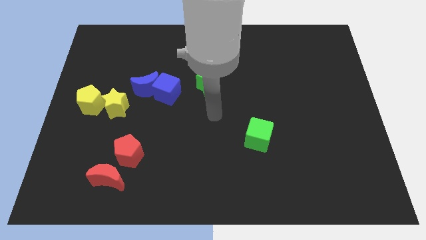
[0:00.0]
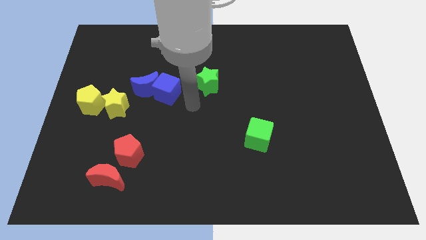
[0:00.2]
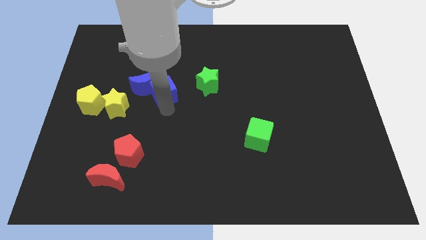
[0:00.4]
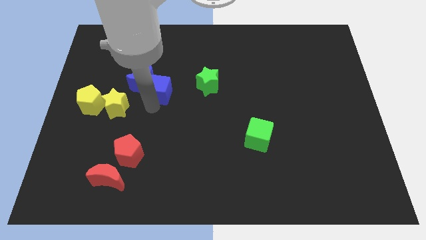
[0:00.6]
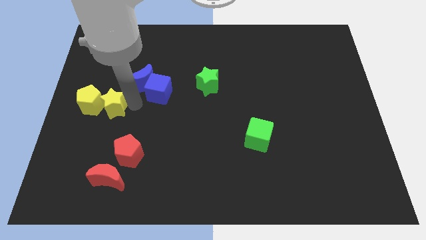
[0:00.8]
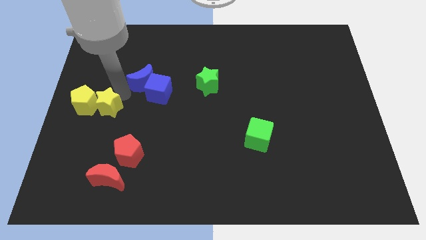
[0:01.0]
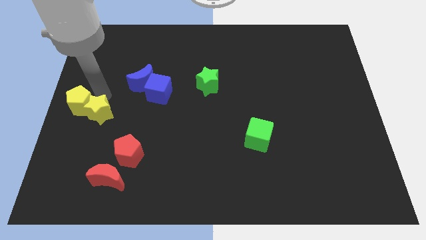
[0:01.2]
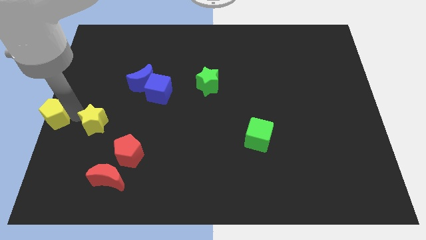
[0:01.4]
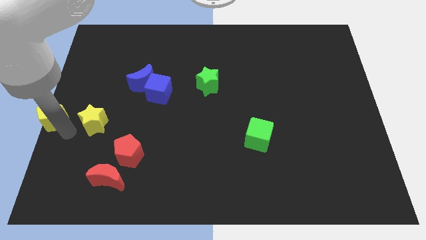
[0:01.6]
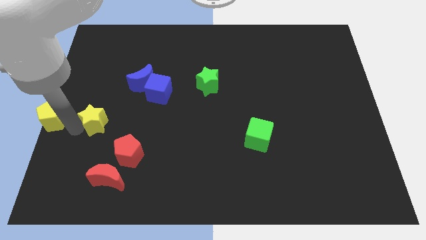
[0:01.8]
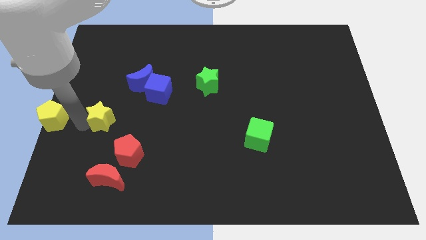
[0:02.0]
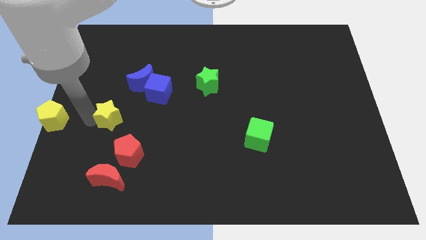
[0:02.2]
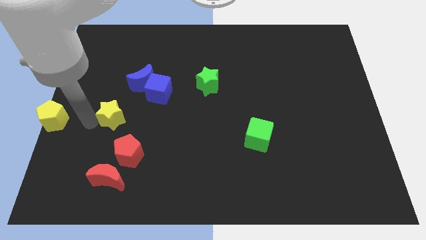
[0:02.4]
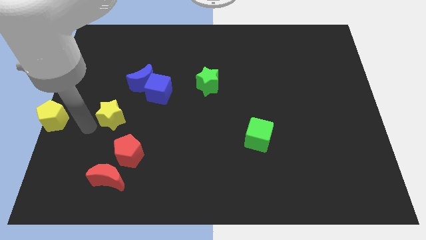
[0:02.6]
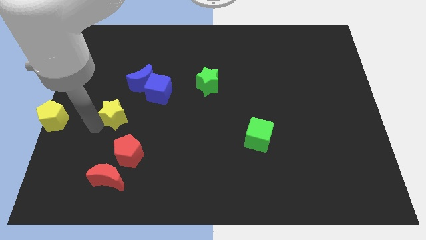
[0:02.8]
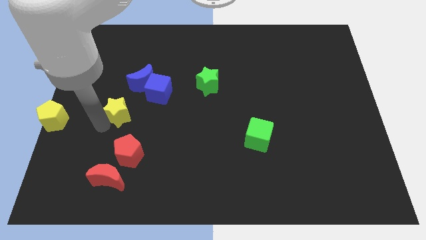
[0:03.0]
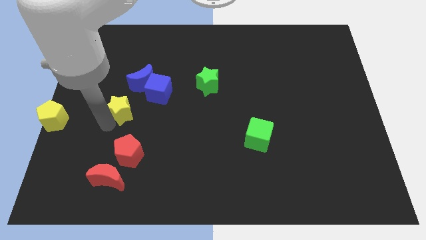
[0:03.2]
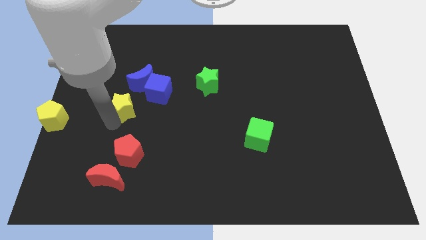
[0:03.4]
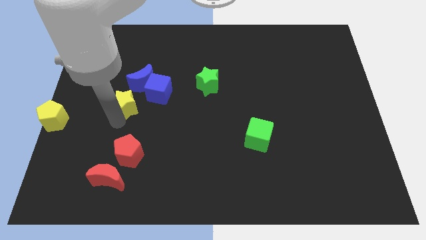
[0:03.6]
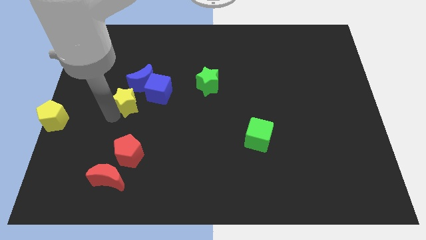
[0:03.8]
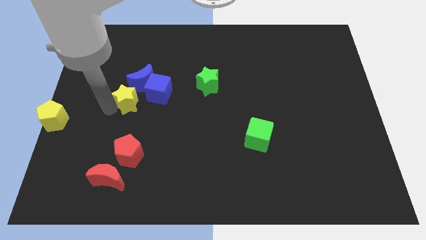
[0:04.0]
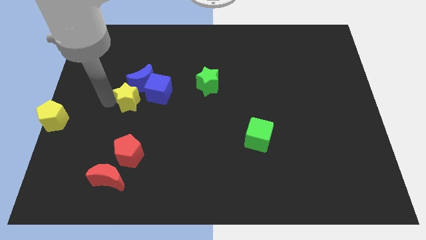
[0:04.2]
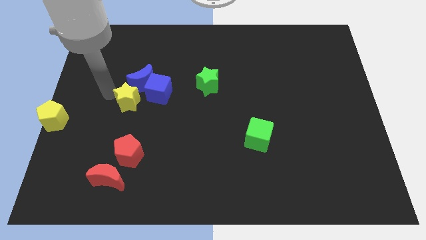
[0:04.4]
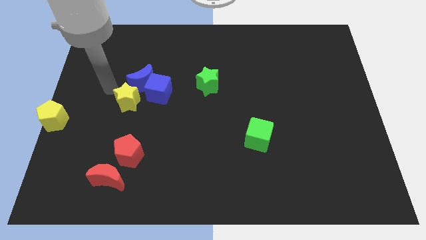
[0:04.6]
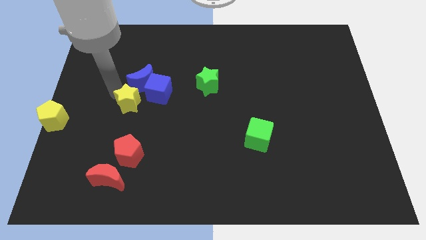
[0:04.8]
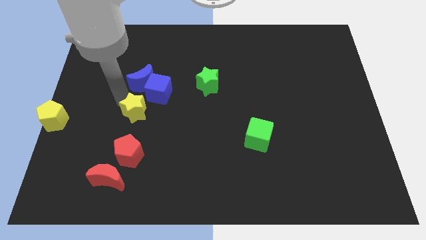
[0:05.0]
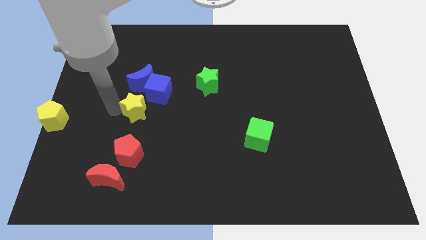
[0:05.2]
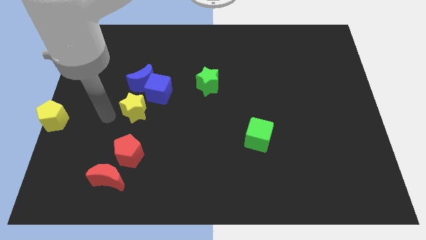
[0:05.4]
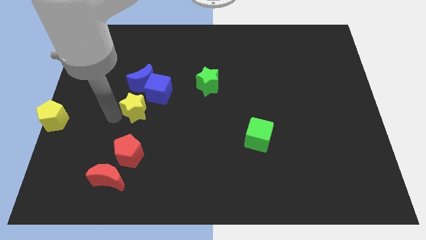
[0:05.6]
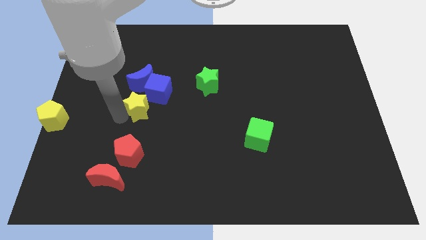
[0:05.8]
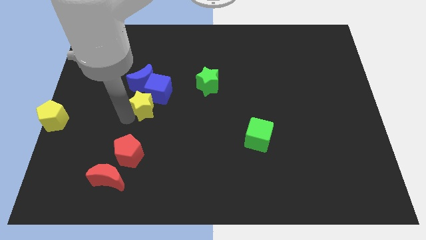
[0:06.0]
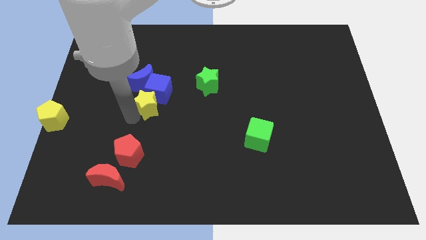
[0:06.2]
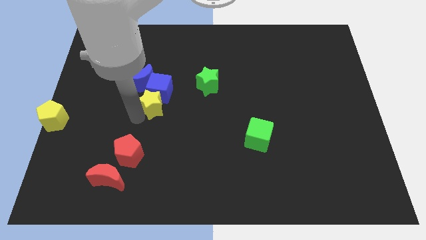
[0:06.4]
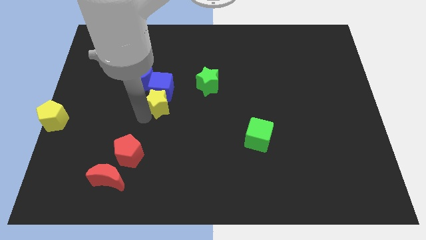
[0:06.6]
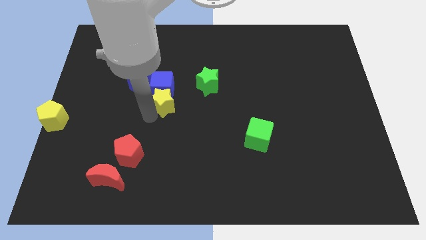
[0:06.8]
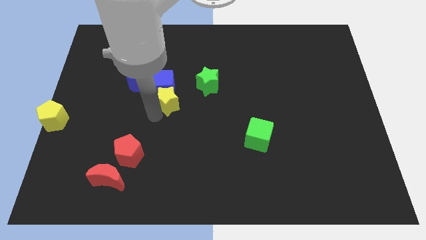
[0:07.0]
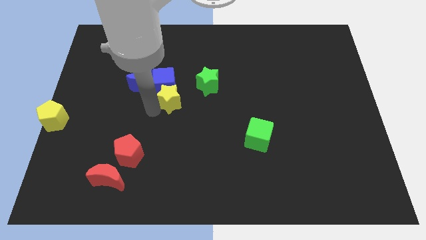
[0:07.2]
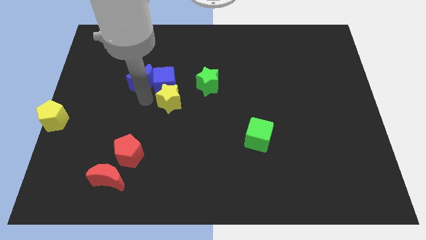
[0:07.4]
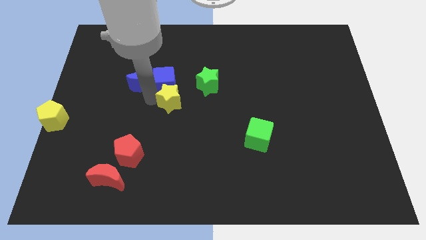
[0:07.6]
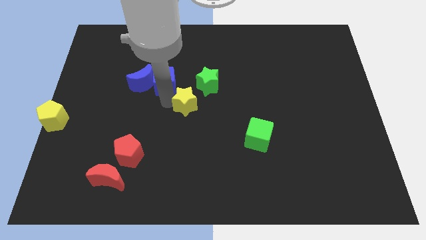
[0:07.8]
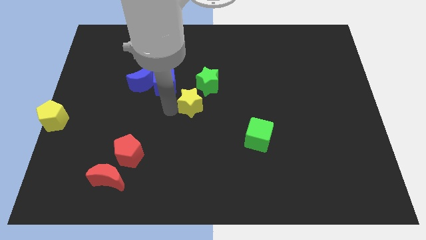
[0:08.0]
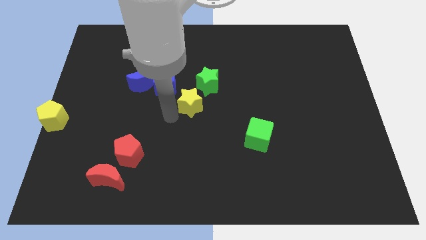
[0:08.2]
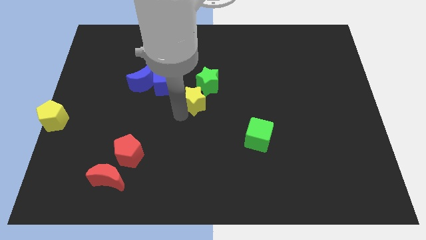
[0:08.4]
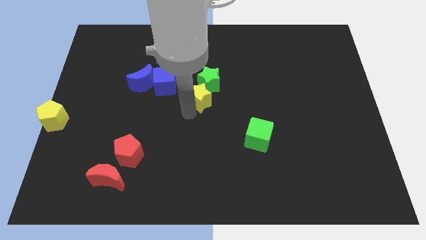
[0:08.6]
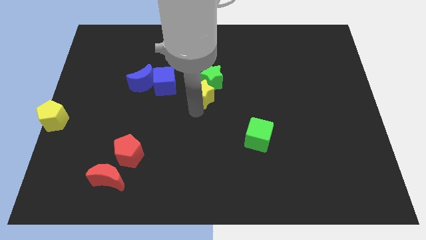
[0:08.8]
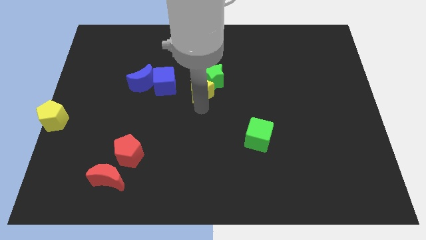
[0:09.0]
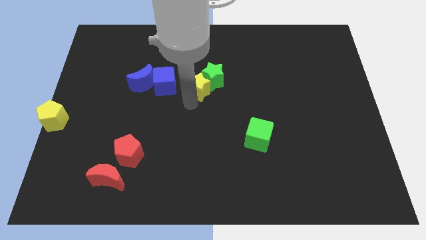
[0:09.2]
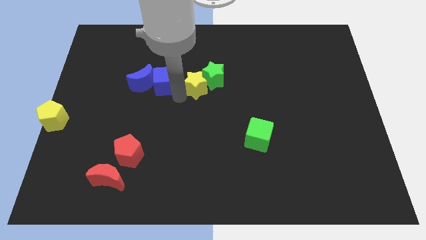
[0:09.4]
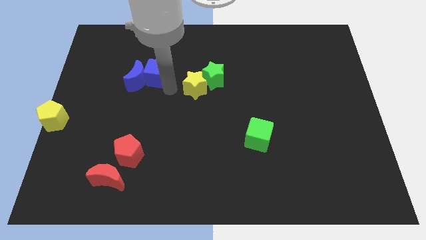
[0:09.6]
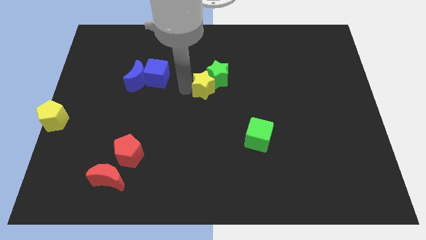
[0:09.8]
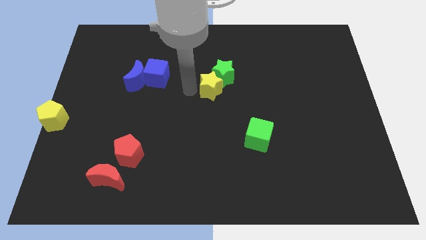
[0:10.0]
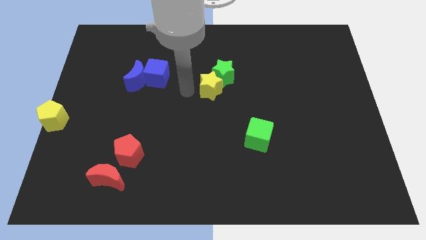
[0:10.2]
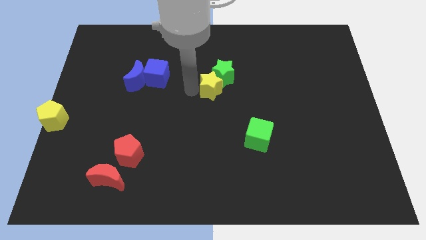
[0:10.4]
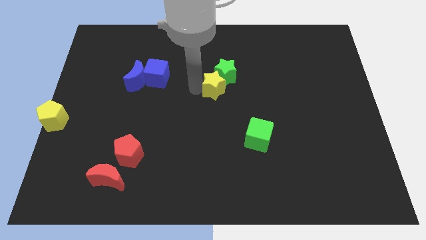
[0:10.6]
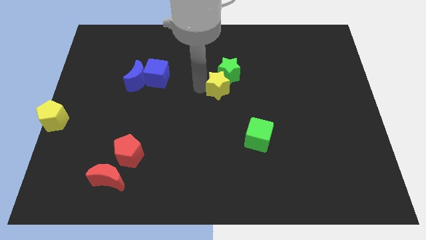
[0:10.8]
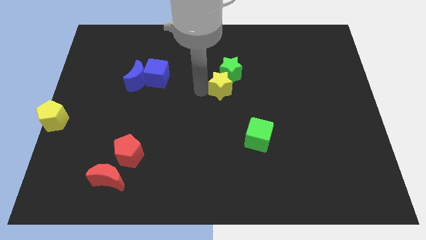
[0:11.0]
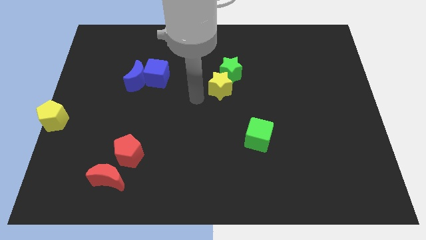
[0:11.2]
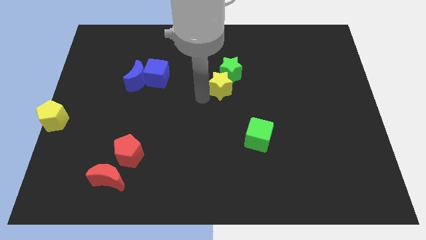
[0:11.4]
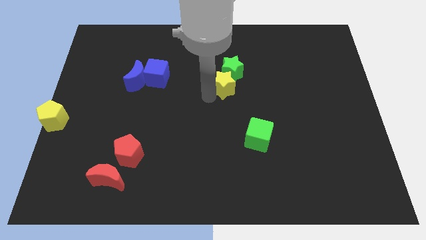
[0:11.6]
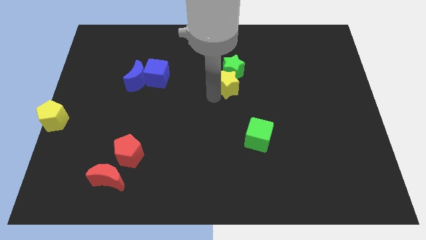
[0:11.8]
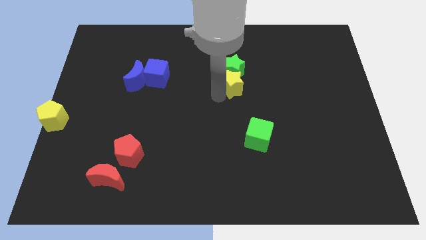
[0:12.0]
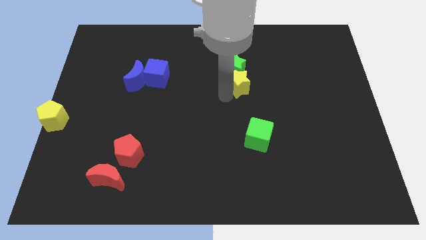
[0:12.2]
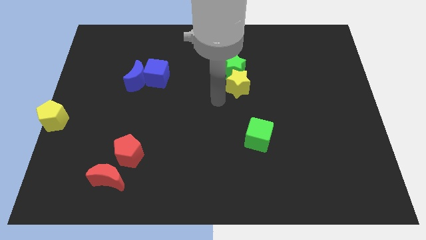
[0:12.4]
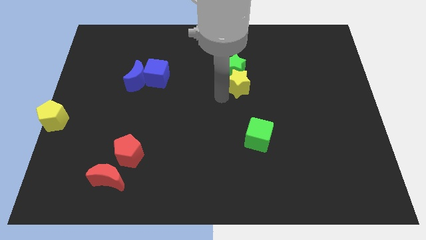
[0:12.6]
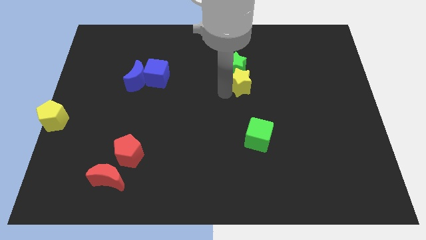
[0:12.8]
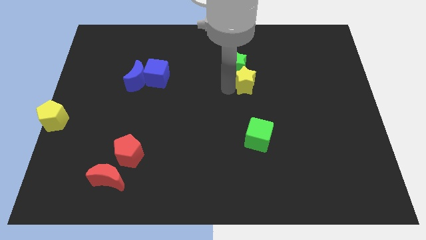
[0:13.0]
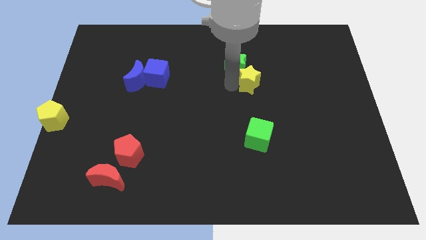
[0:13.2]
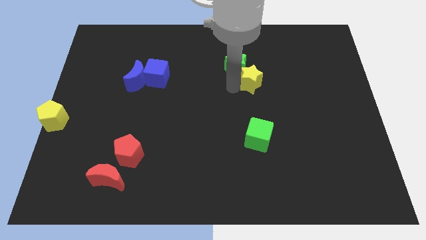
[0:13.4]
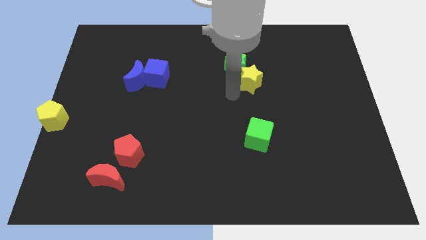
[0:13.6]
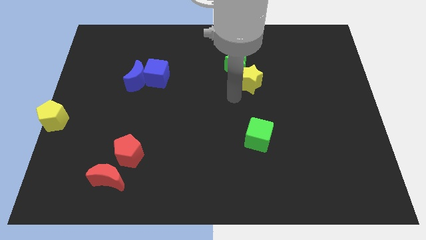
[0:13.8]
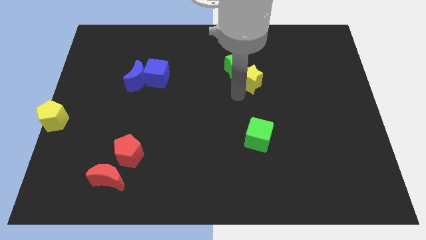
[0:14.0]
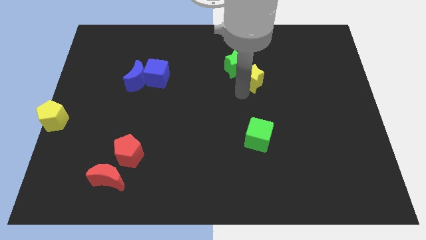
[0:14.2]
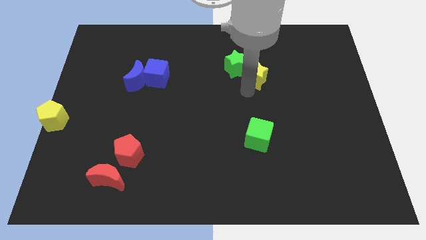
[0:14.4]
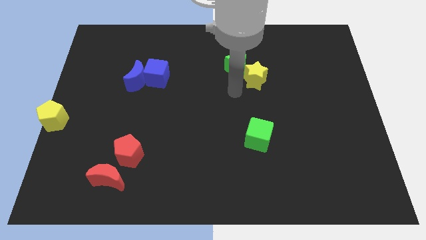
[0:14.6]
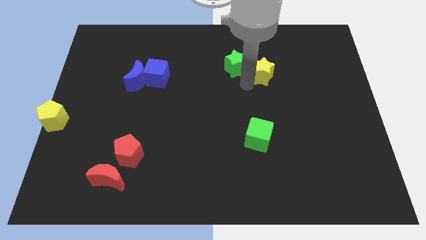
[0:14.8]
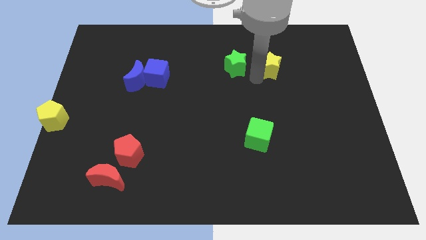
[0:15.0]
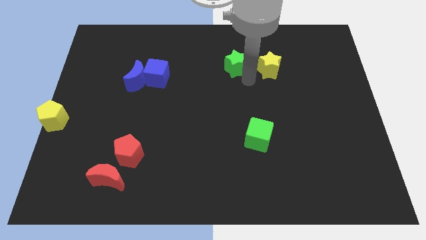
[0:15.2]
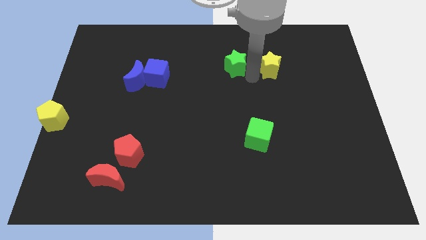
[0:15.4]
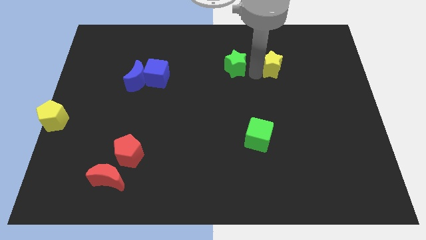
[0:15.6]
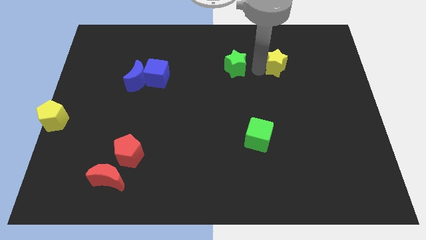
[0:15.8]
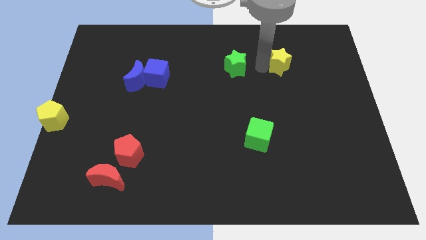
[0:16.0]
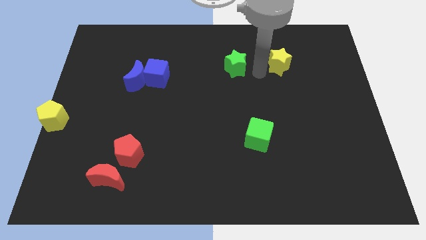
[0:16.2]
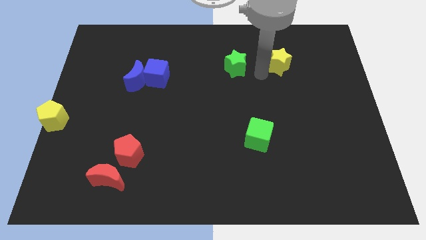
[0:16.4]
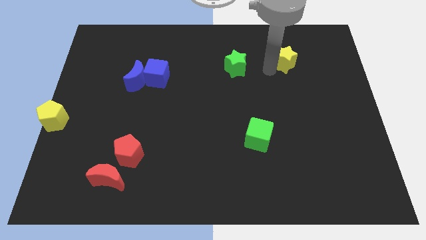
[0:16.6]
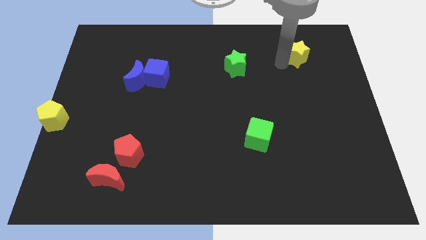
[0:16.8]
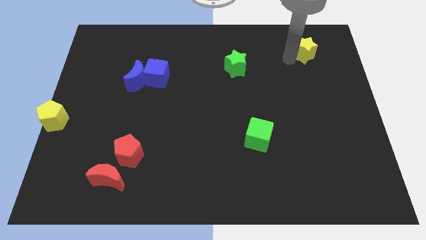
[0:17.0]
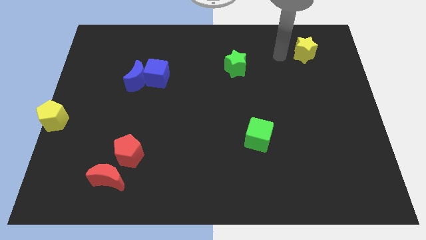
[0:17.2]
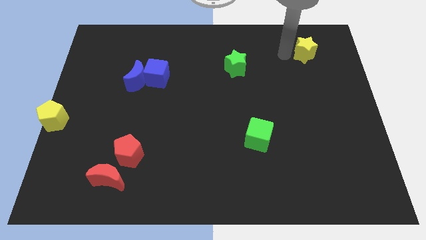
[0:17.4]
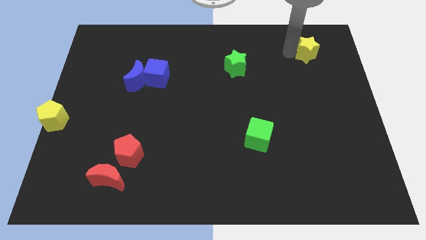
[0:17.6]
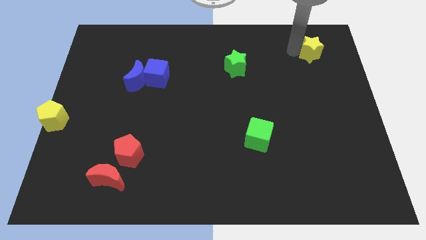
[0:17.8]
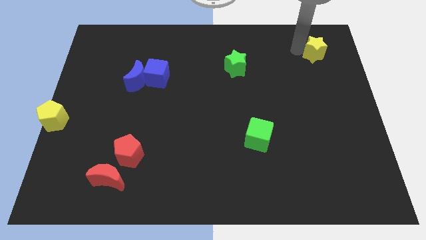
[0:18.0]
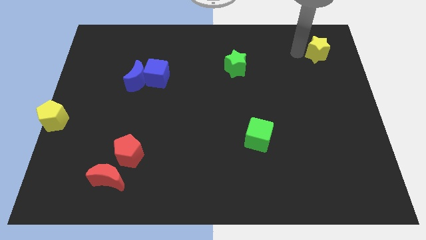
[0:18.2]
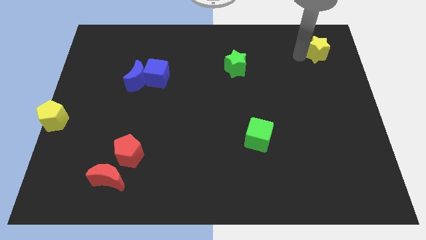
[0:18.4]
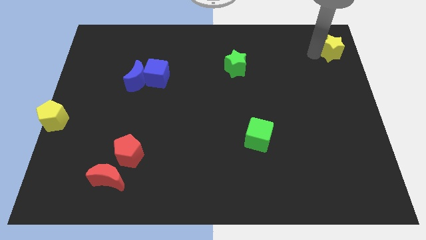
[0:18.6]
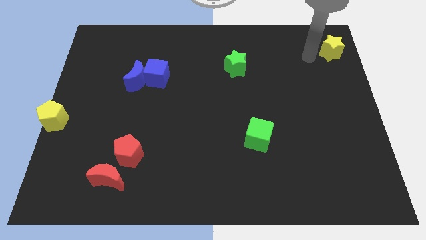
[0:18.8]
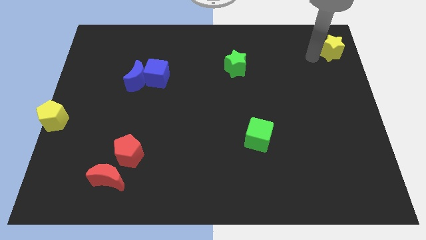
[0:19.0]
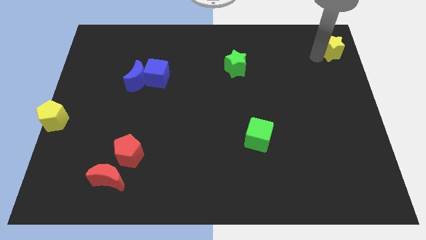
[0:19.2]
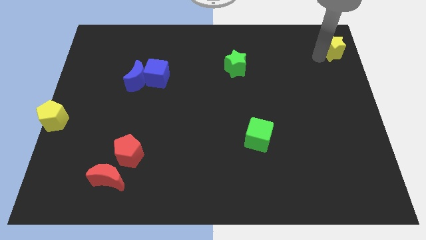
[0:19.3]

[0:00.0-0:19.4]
put the yellow star to the top right corner
